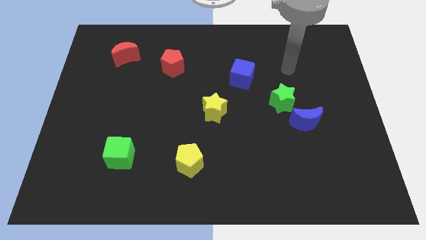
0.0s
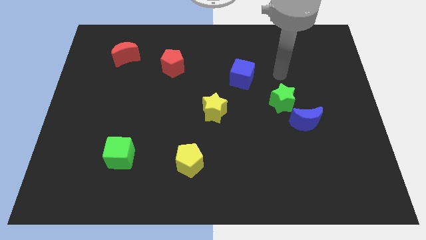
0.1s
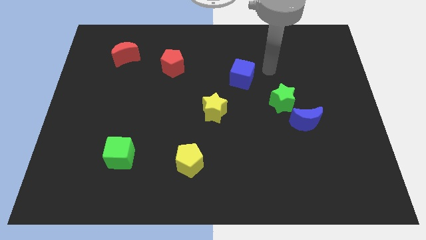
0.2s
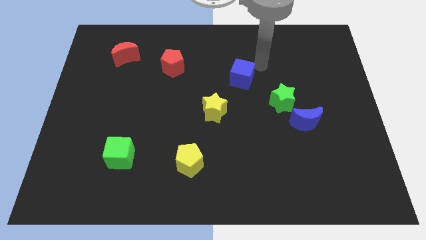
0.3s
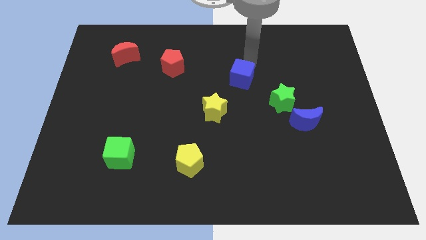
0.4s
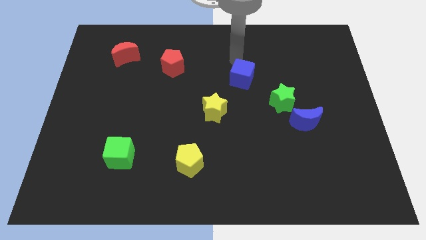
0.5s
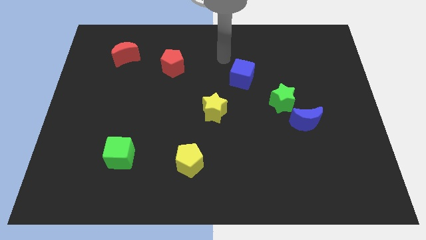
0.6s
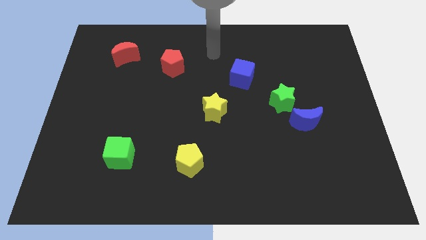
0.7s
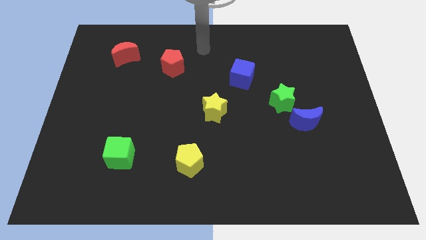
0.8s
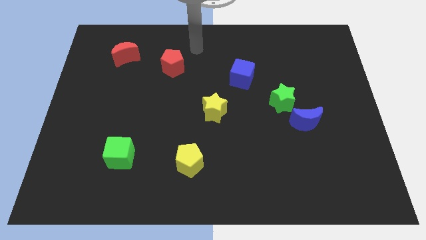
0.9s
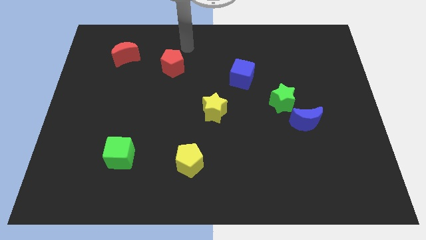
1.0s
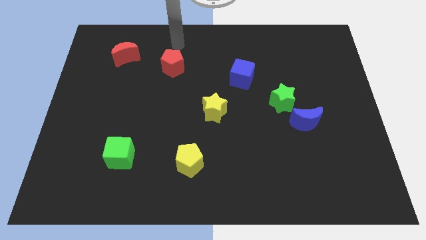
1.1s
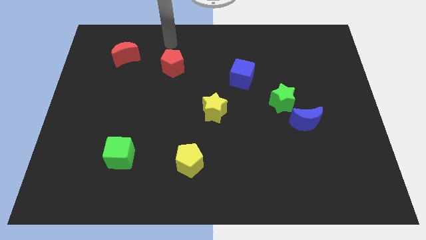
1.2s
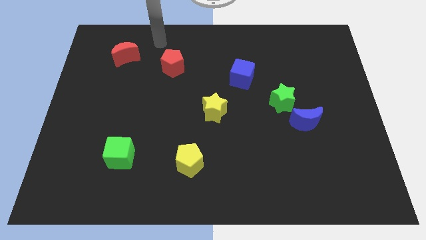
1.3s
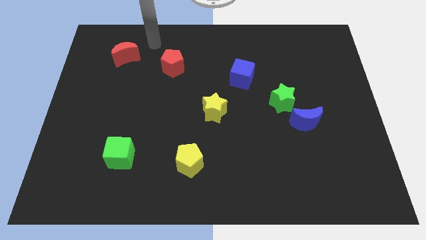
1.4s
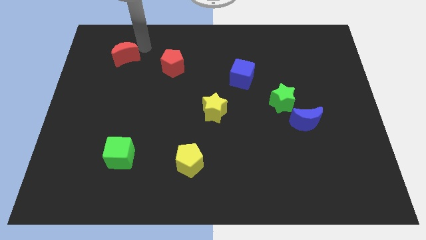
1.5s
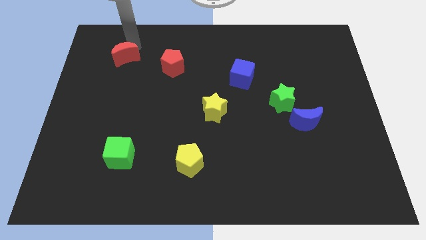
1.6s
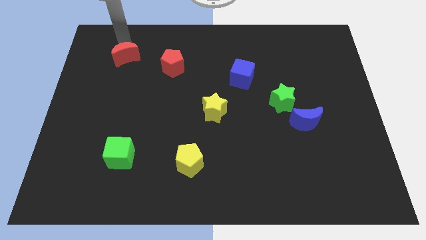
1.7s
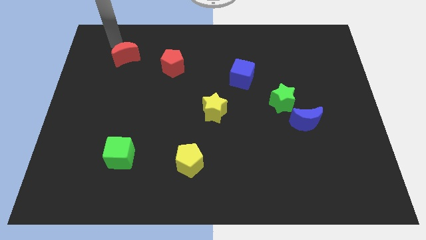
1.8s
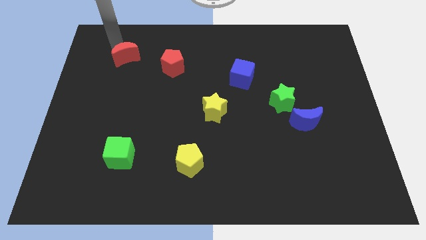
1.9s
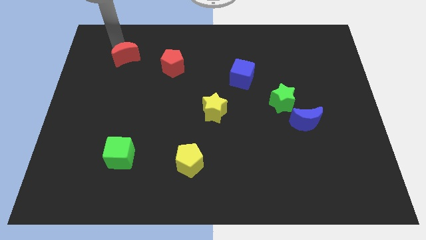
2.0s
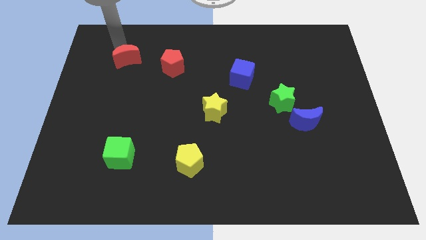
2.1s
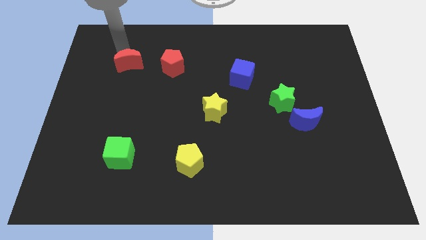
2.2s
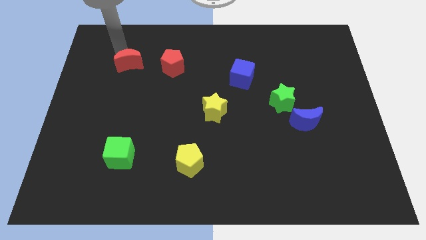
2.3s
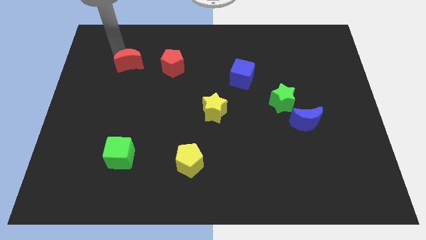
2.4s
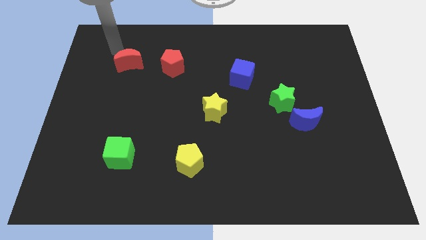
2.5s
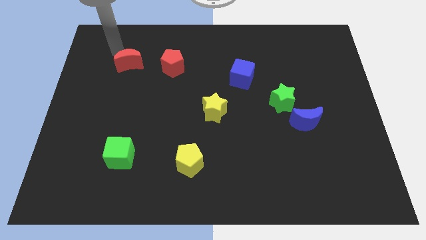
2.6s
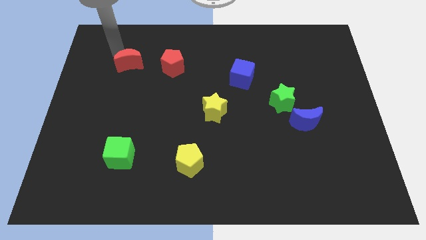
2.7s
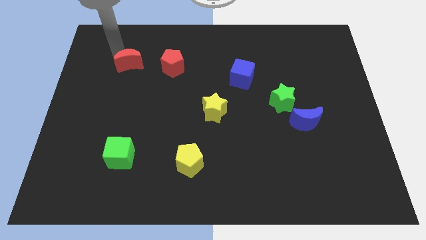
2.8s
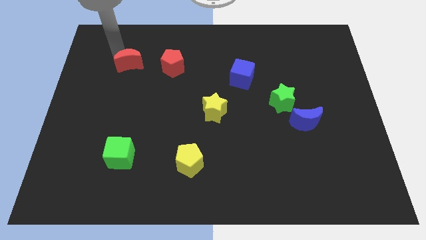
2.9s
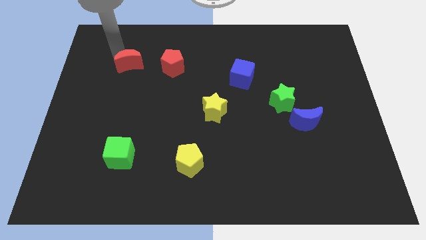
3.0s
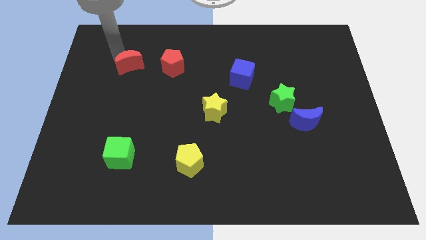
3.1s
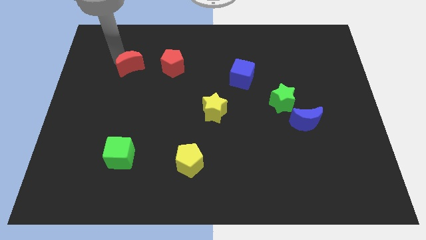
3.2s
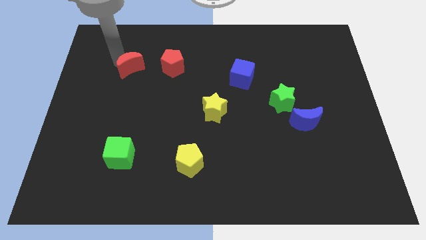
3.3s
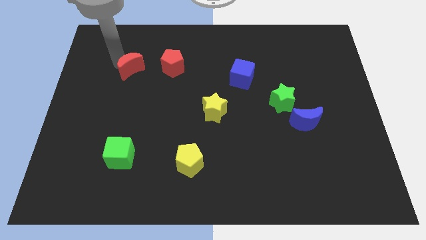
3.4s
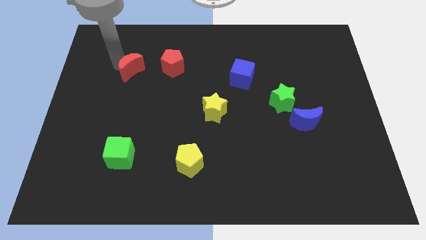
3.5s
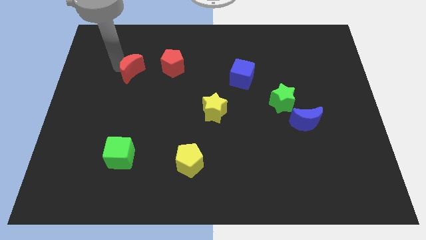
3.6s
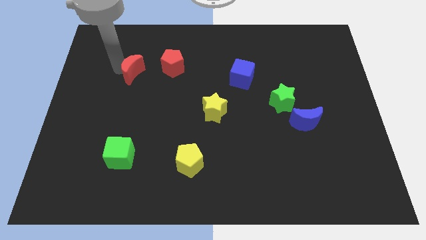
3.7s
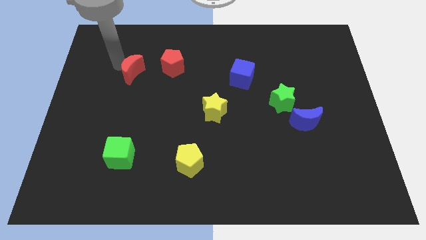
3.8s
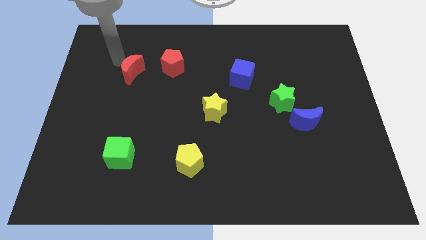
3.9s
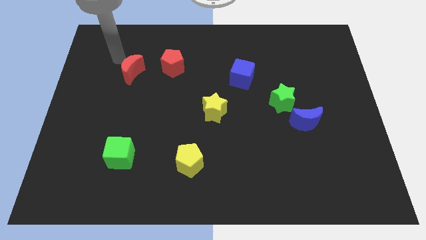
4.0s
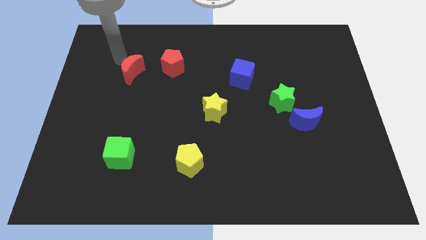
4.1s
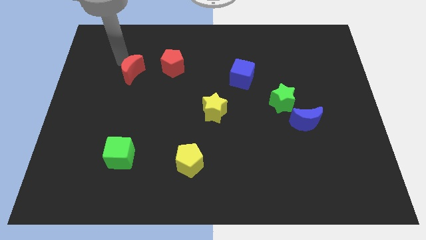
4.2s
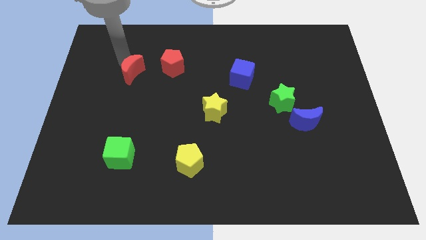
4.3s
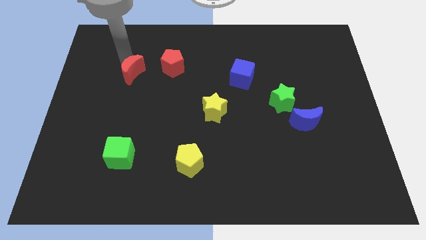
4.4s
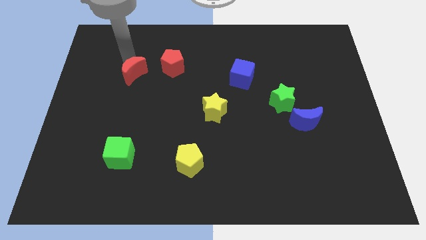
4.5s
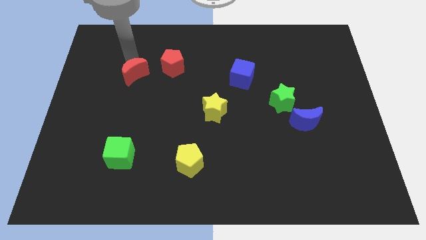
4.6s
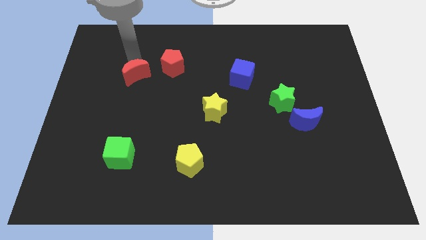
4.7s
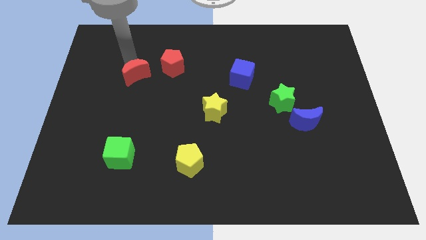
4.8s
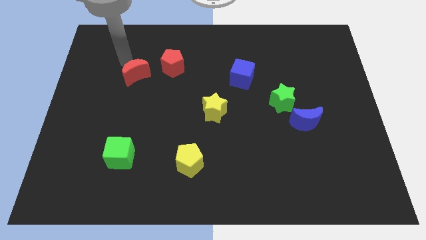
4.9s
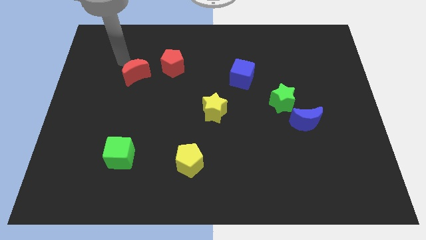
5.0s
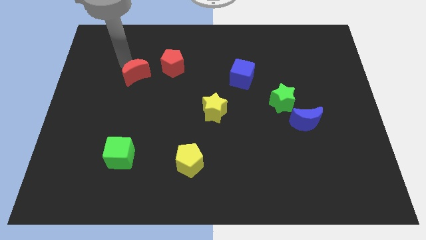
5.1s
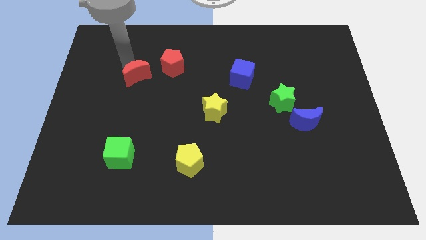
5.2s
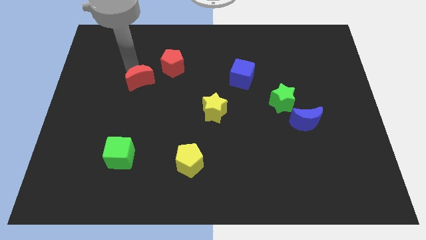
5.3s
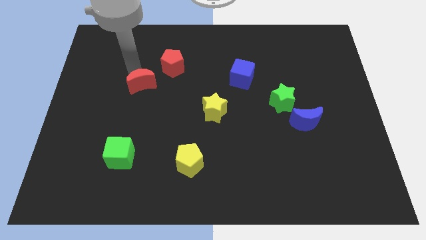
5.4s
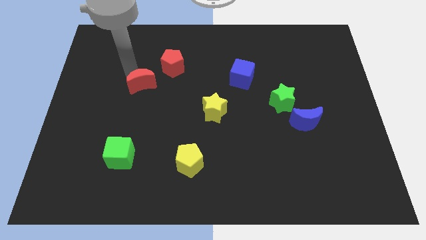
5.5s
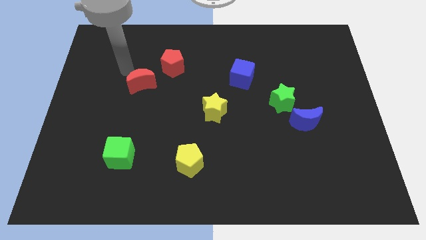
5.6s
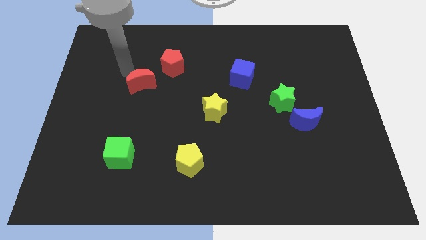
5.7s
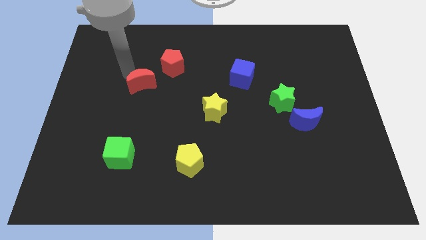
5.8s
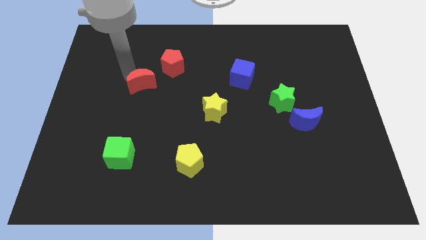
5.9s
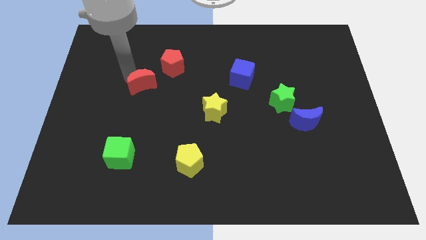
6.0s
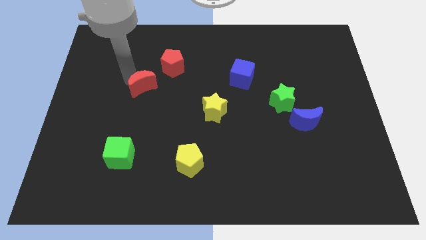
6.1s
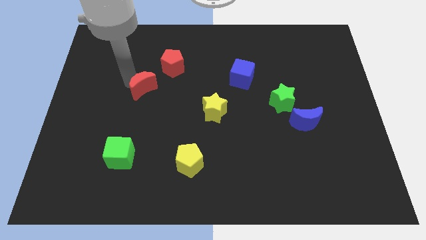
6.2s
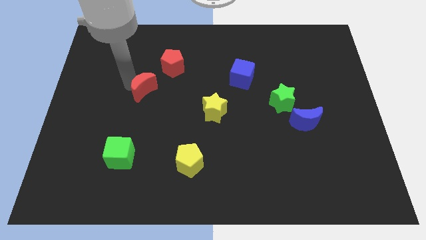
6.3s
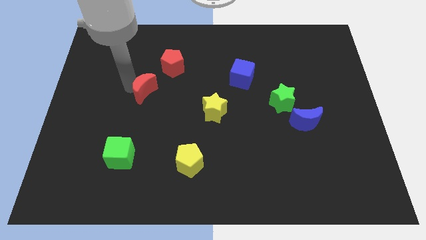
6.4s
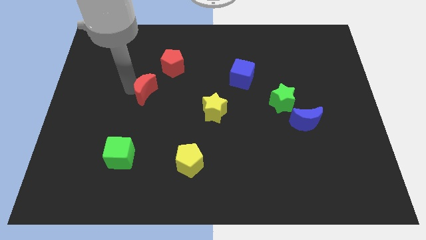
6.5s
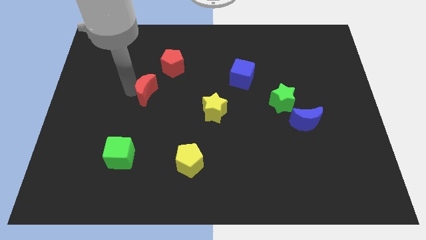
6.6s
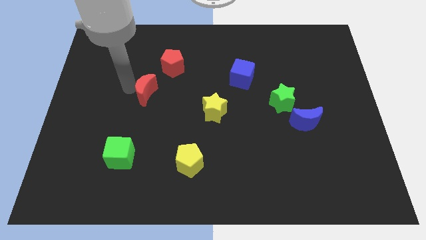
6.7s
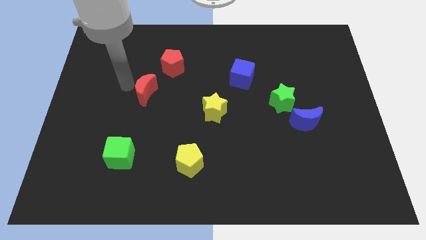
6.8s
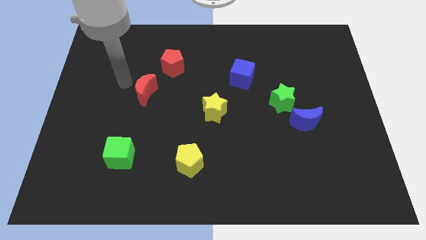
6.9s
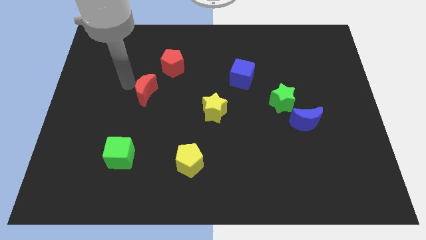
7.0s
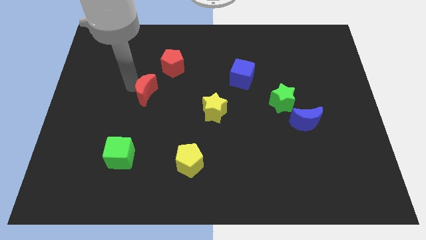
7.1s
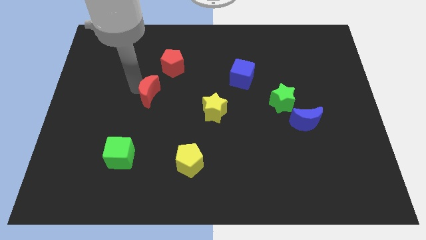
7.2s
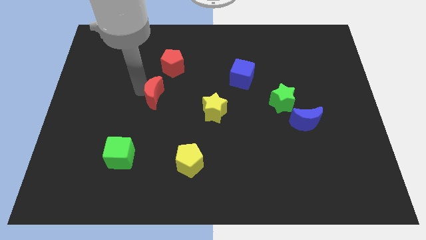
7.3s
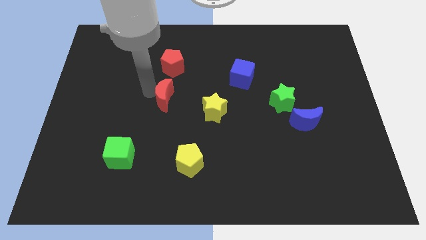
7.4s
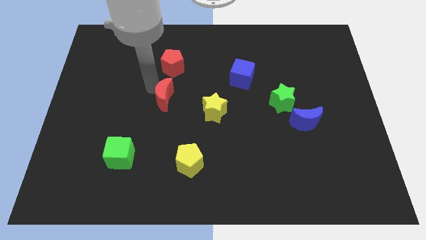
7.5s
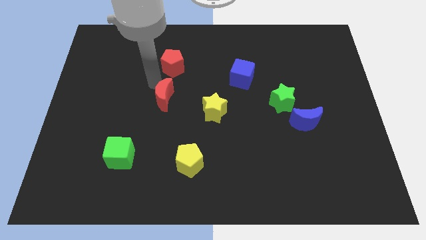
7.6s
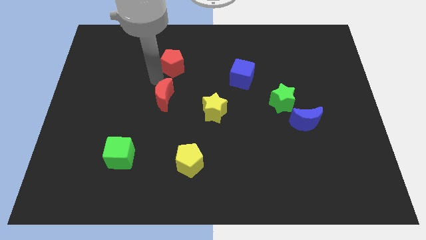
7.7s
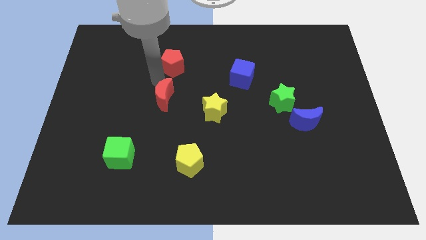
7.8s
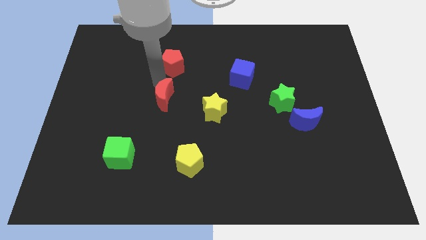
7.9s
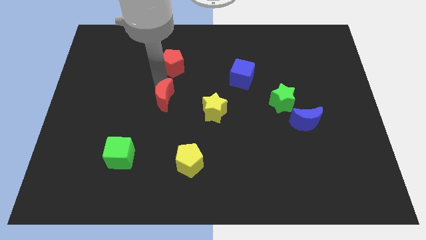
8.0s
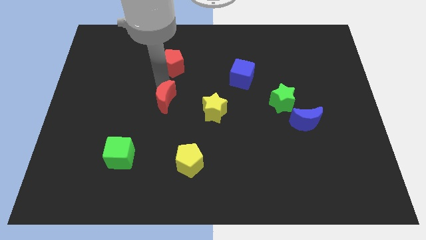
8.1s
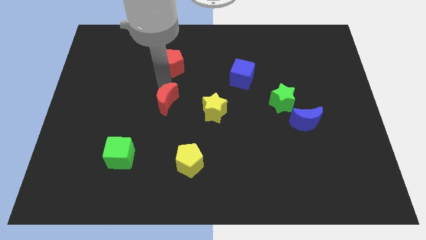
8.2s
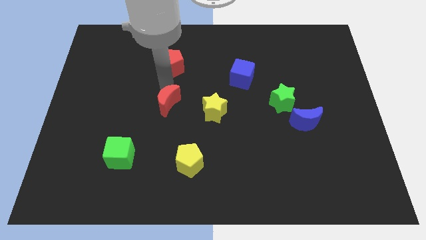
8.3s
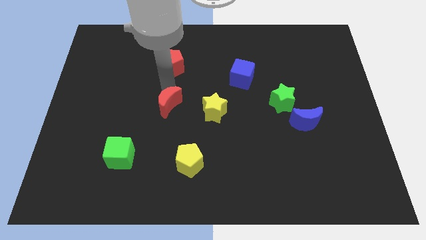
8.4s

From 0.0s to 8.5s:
push the red moon downwards and right diagonally
